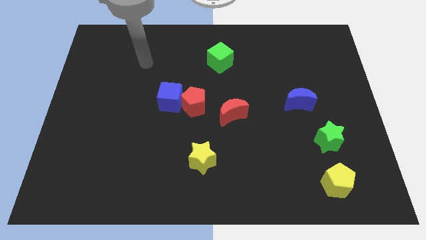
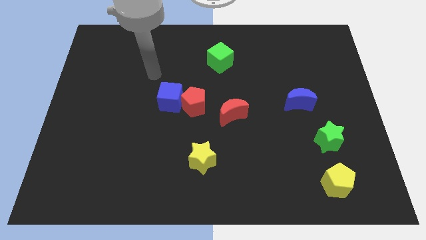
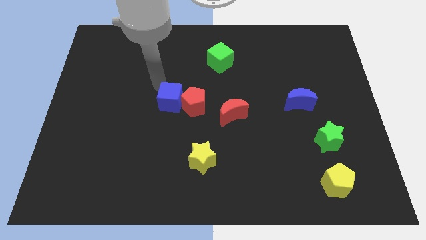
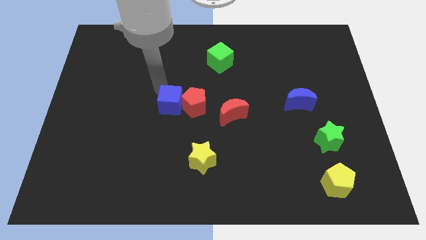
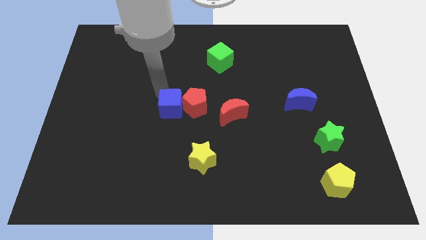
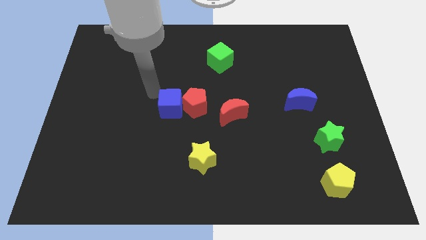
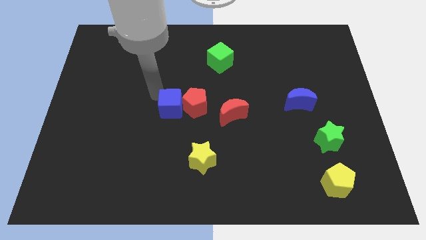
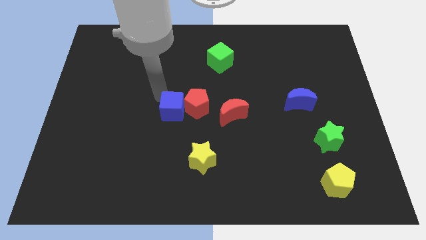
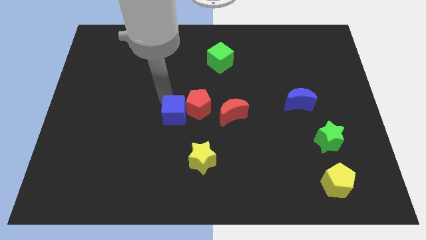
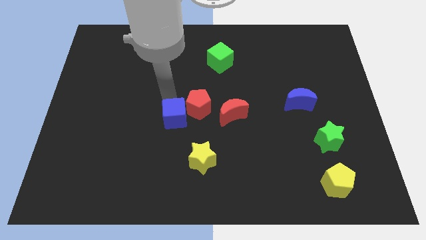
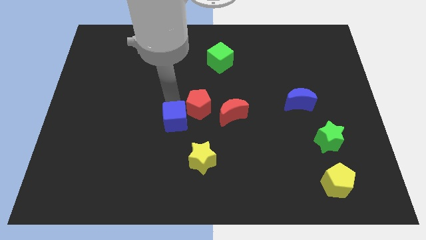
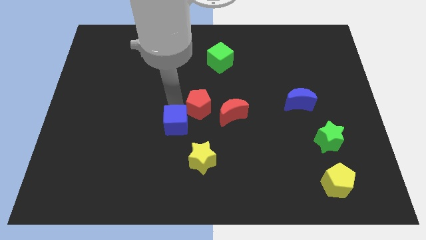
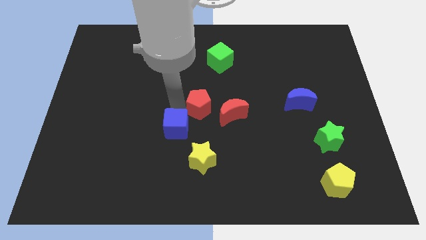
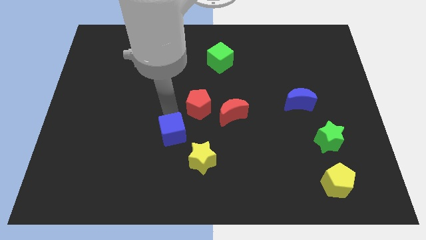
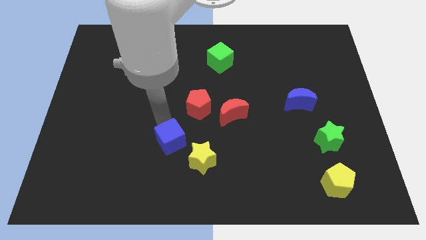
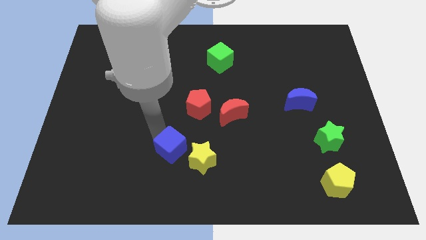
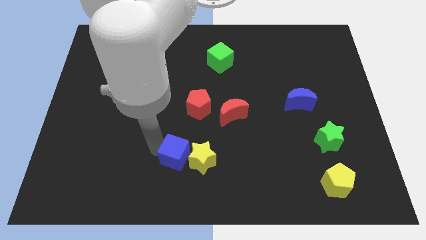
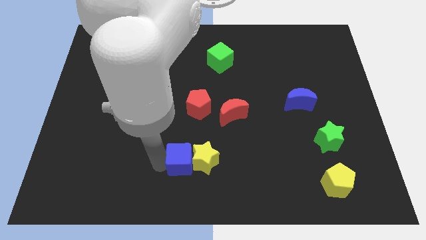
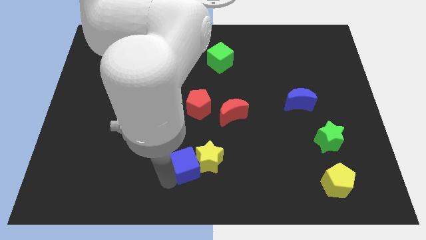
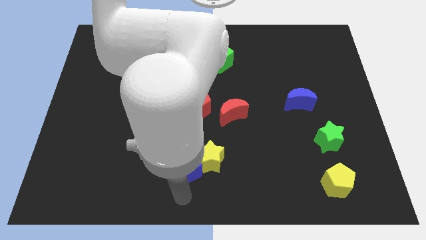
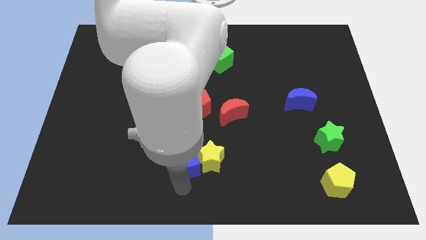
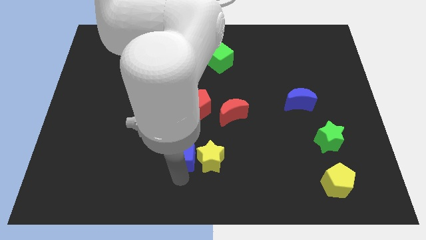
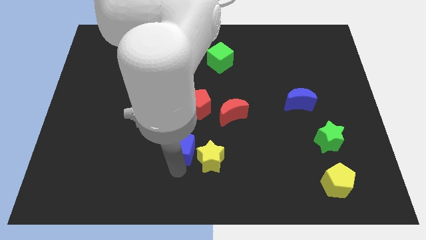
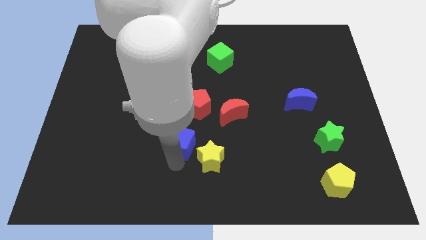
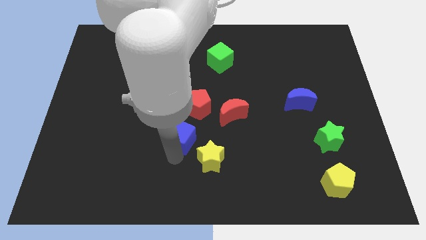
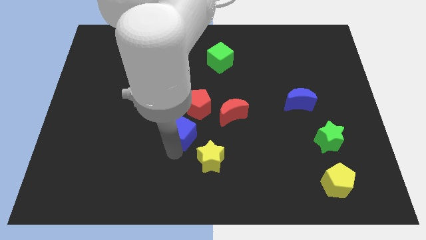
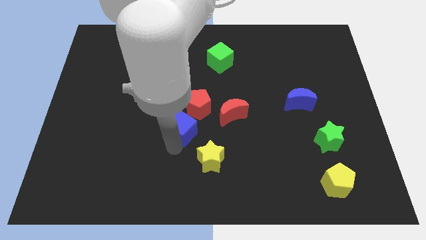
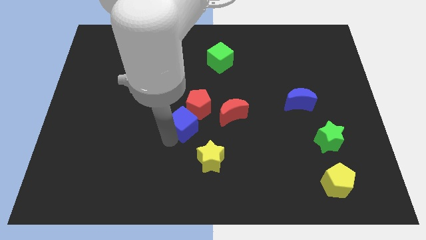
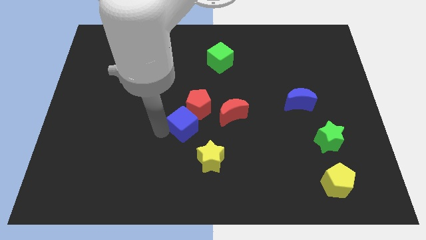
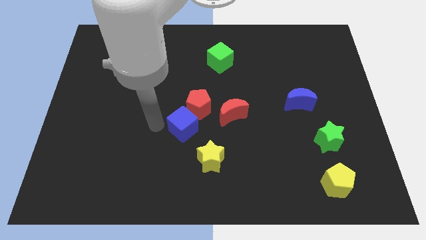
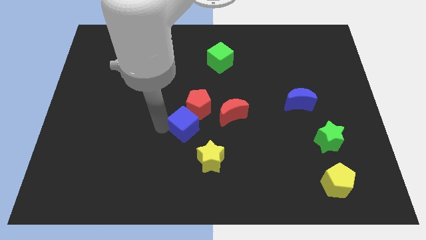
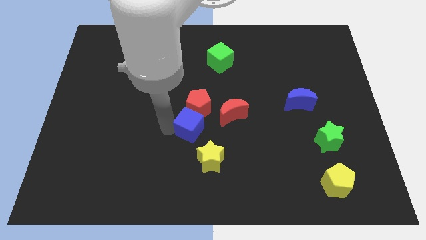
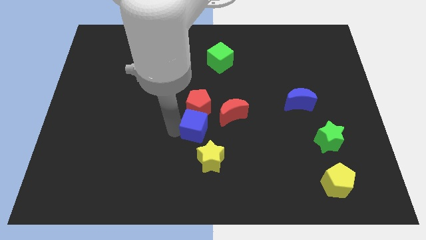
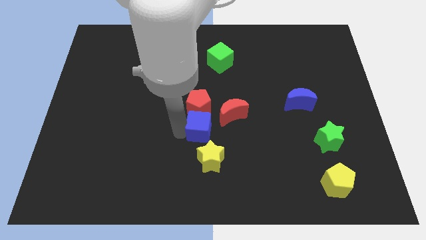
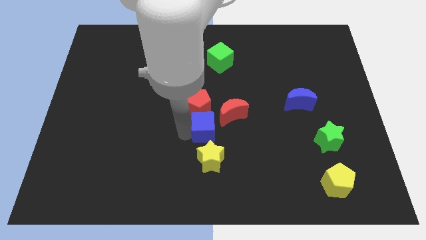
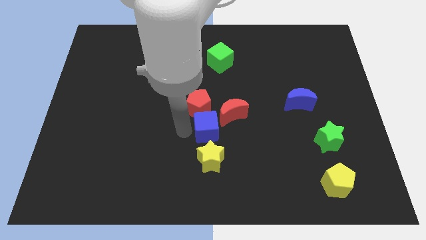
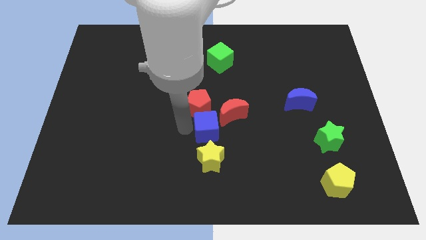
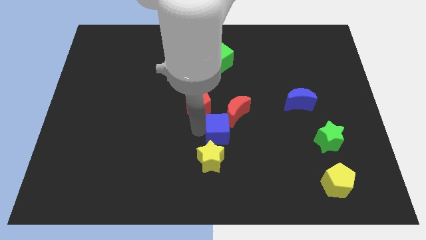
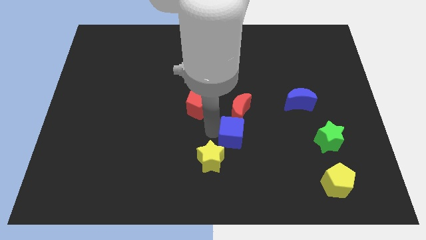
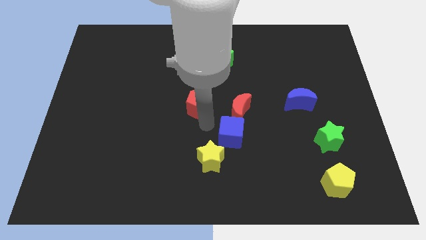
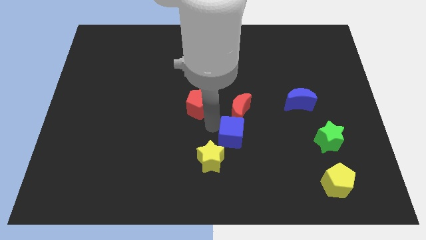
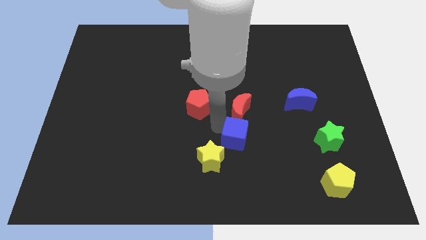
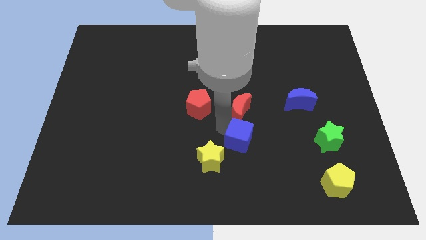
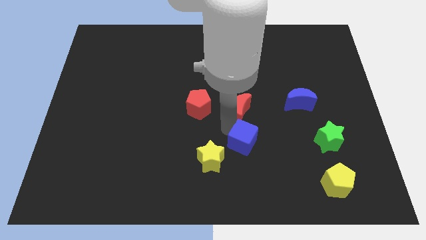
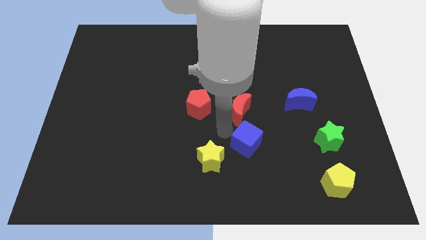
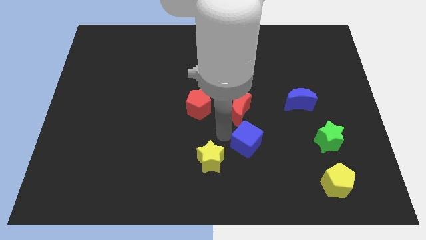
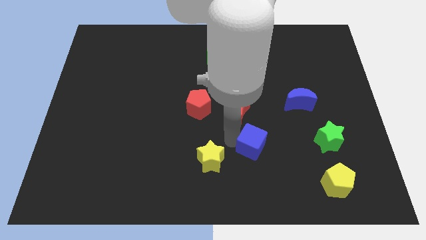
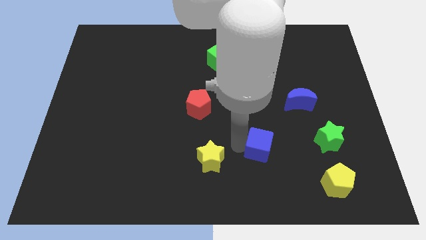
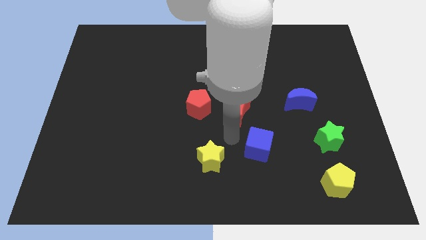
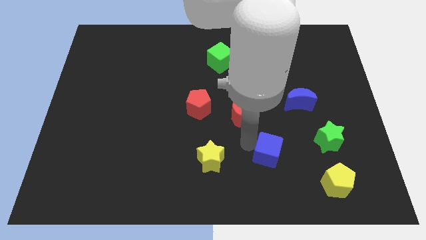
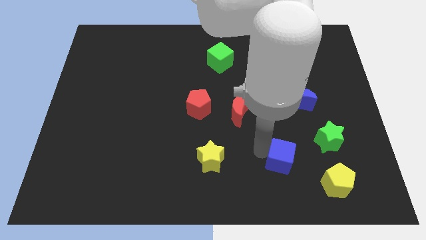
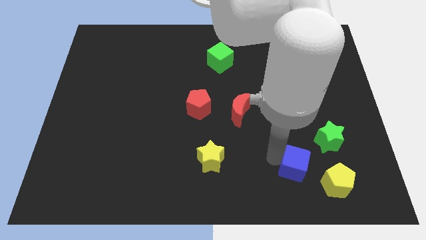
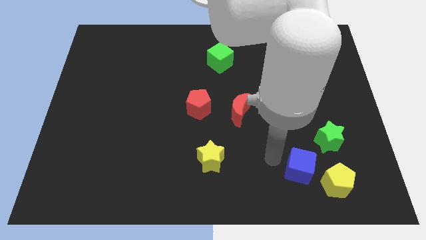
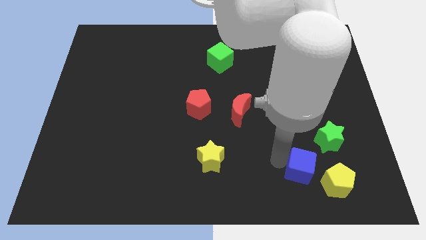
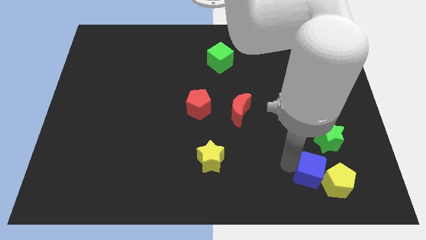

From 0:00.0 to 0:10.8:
push the blue cube next to the yellow pentagon
